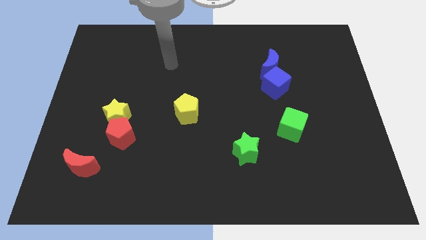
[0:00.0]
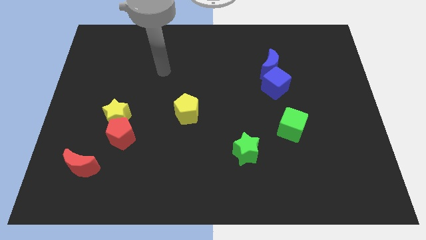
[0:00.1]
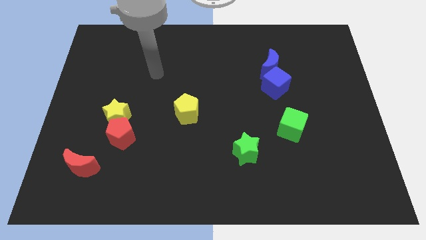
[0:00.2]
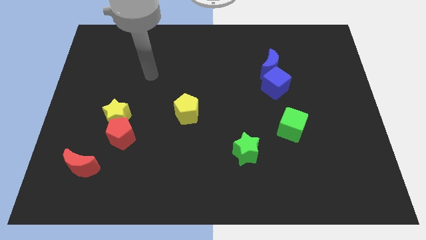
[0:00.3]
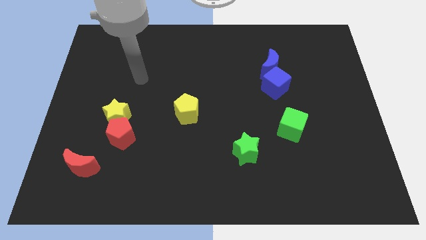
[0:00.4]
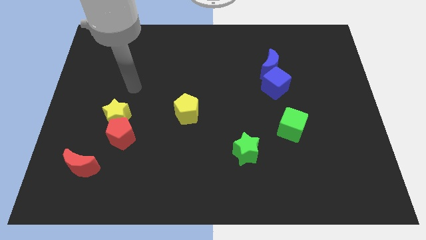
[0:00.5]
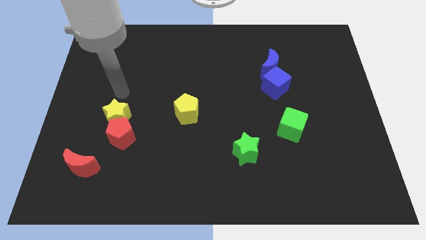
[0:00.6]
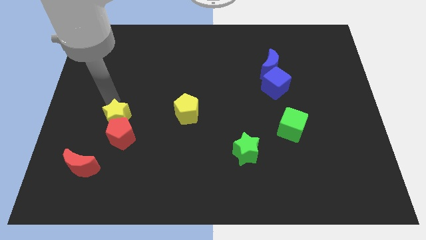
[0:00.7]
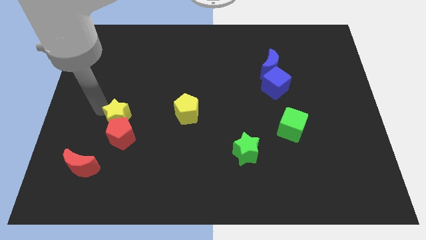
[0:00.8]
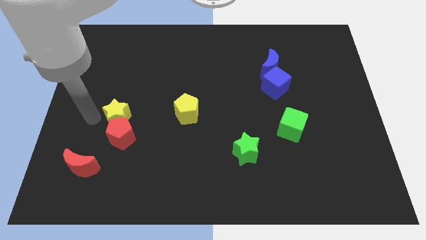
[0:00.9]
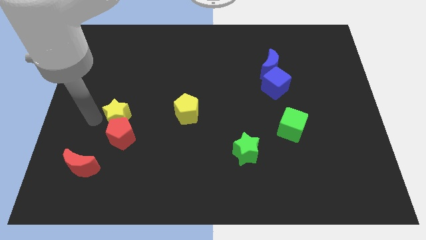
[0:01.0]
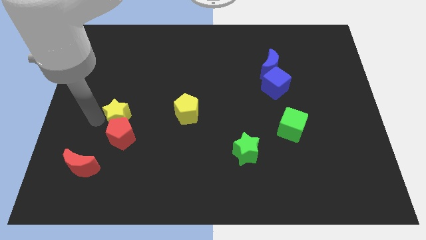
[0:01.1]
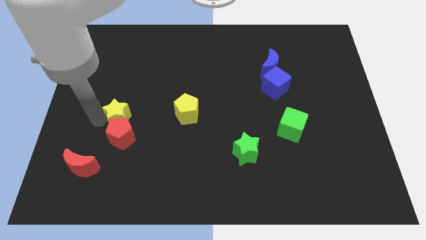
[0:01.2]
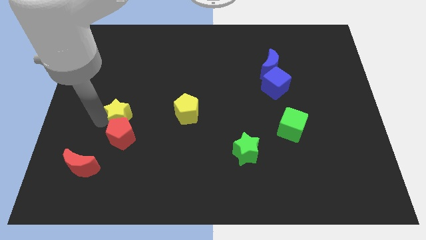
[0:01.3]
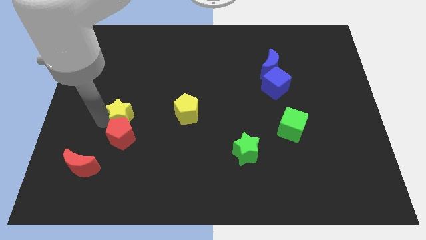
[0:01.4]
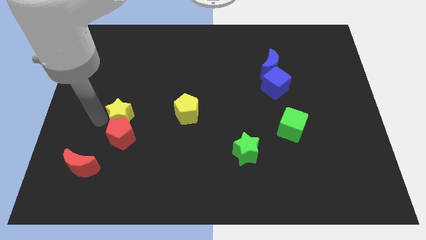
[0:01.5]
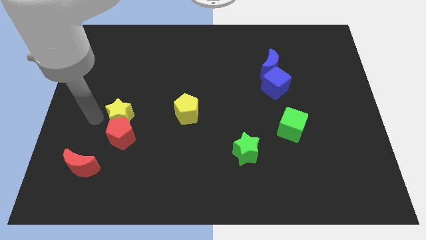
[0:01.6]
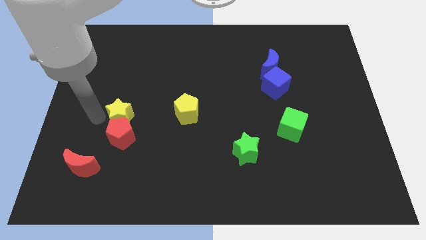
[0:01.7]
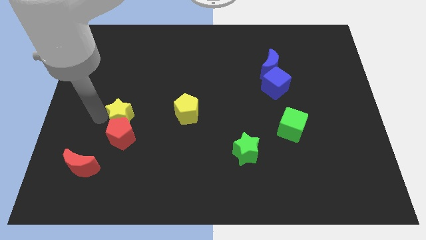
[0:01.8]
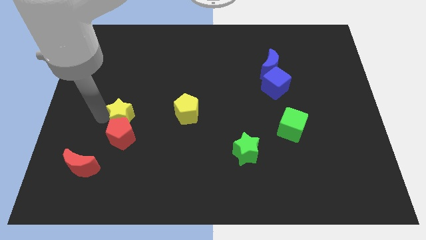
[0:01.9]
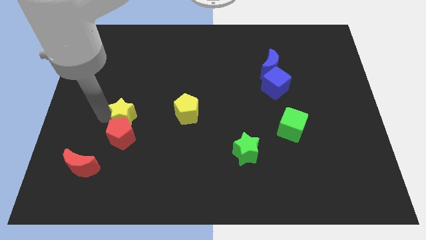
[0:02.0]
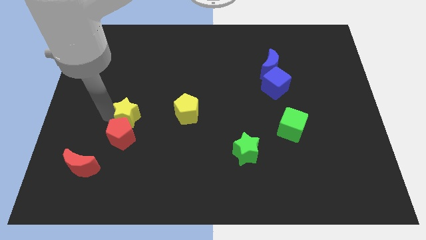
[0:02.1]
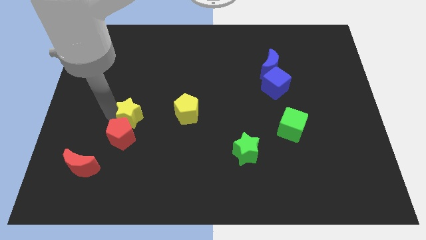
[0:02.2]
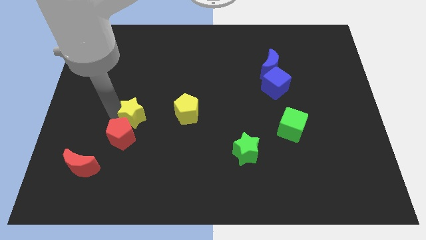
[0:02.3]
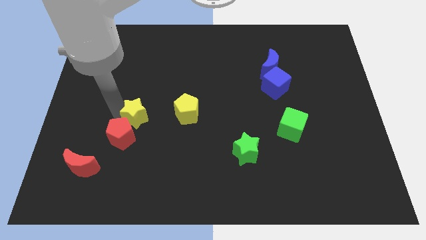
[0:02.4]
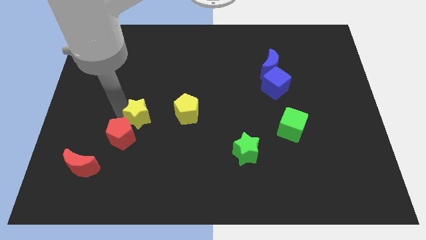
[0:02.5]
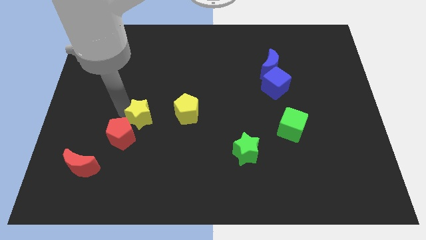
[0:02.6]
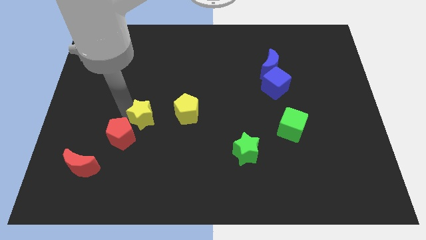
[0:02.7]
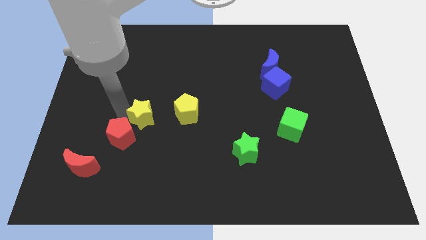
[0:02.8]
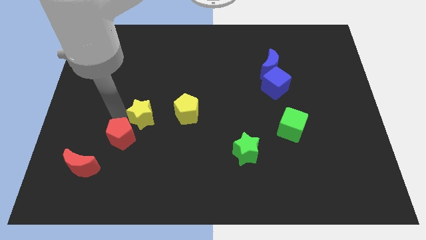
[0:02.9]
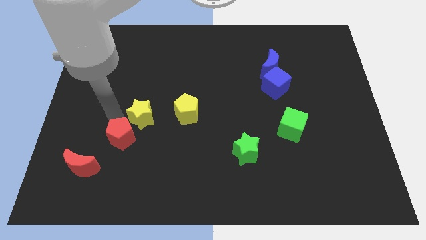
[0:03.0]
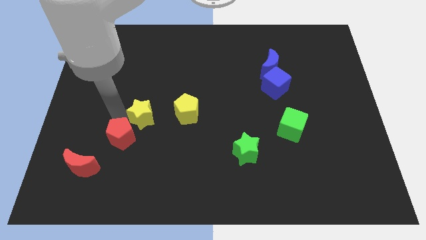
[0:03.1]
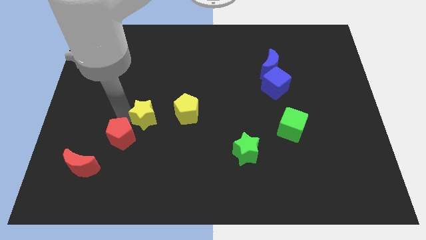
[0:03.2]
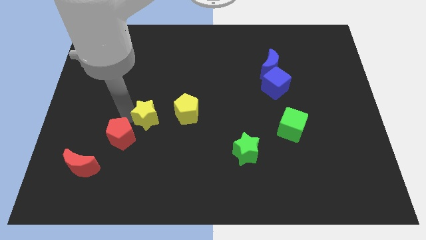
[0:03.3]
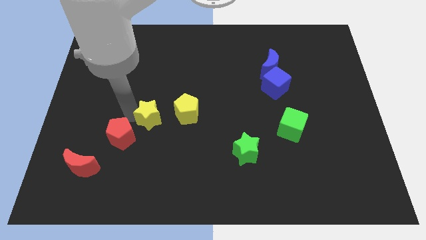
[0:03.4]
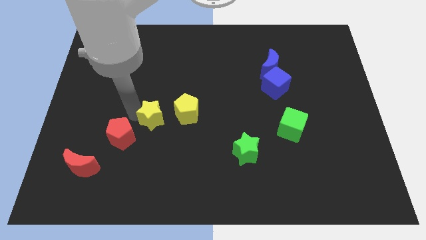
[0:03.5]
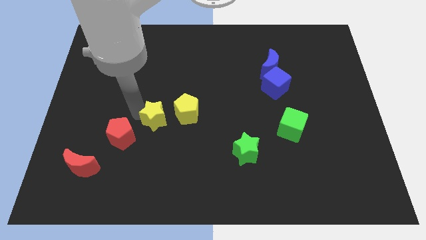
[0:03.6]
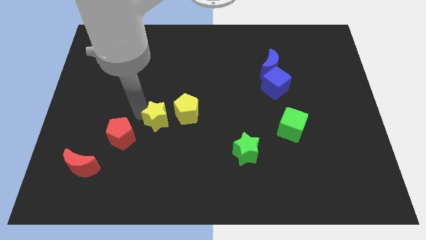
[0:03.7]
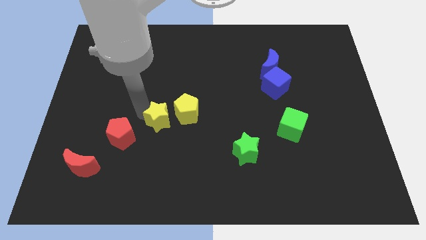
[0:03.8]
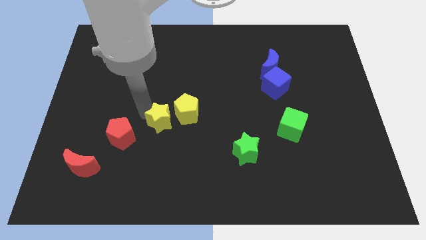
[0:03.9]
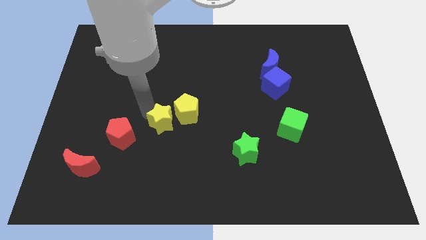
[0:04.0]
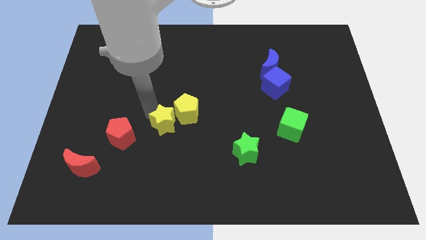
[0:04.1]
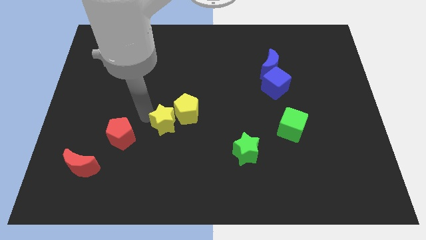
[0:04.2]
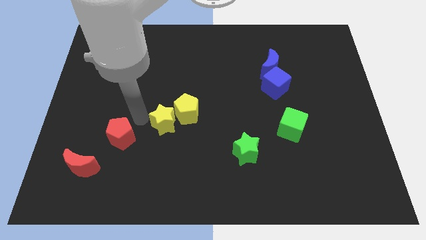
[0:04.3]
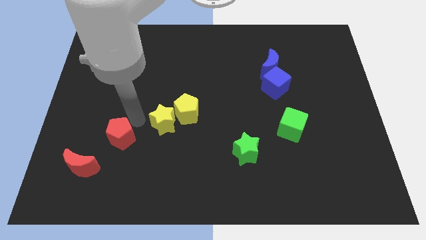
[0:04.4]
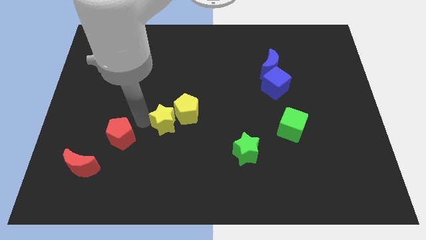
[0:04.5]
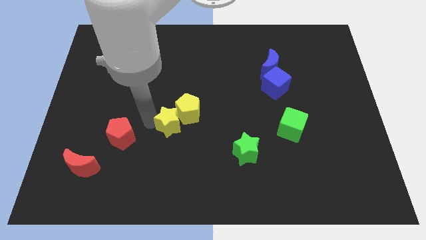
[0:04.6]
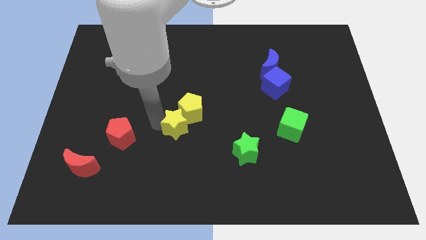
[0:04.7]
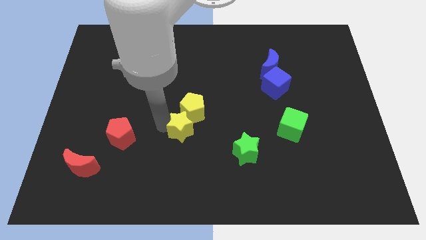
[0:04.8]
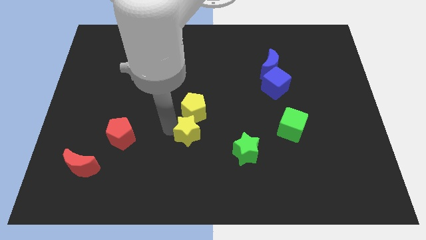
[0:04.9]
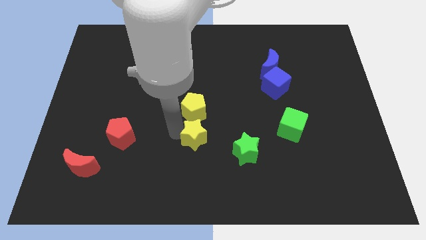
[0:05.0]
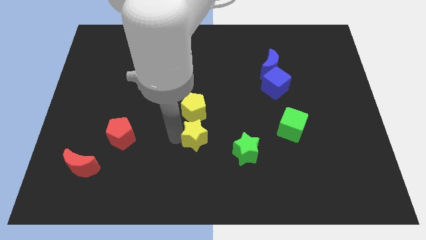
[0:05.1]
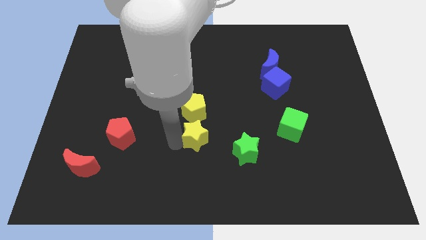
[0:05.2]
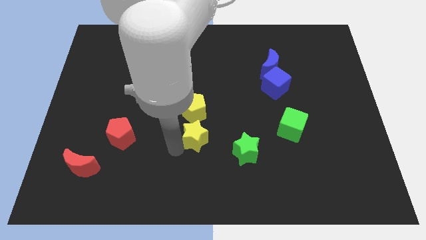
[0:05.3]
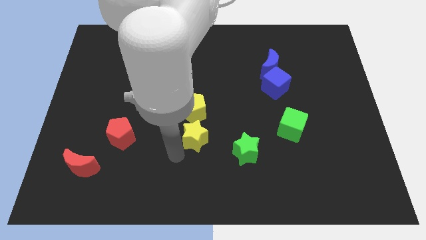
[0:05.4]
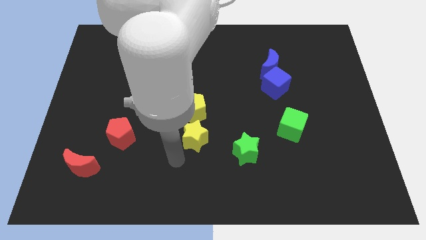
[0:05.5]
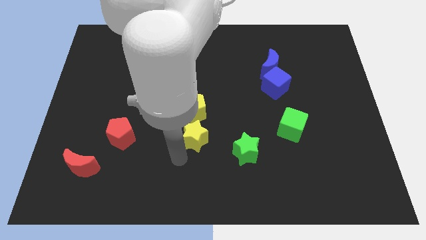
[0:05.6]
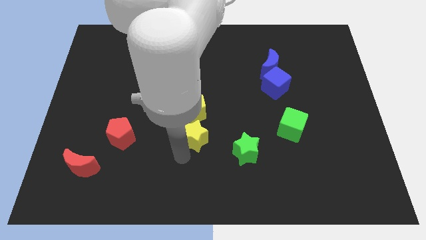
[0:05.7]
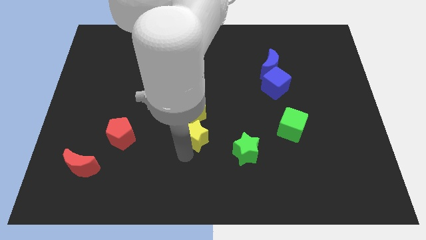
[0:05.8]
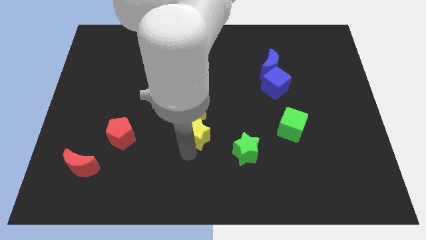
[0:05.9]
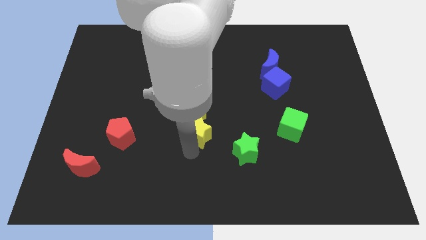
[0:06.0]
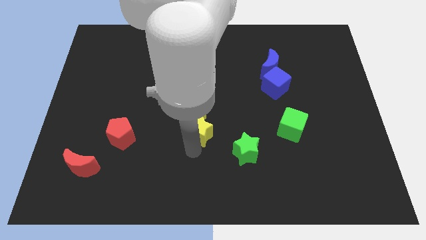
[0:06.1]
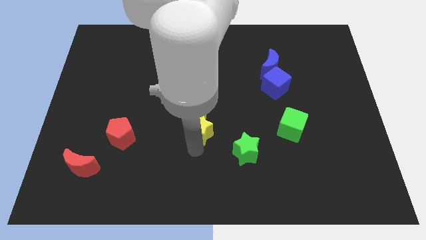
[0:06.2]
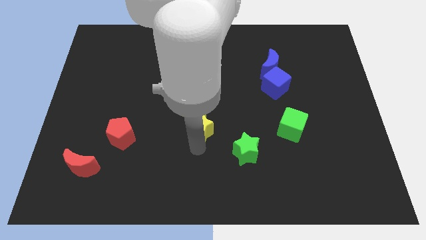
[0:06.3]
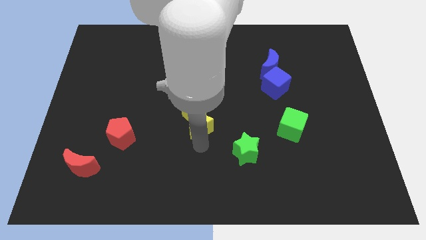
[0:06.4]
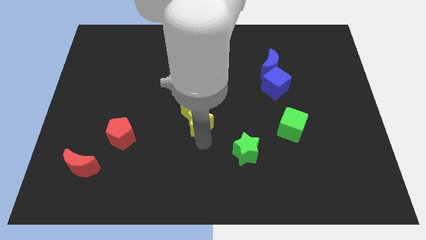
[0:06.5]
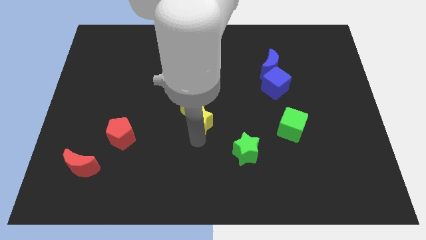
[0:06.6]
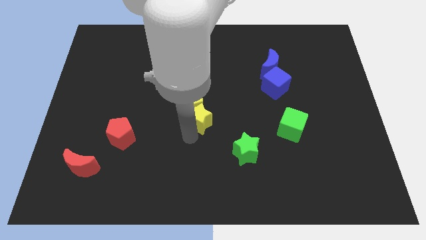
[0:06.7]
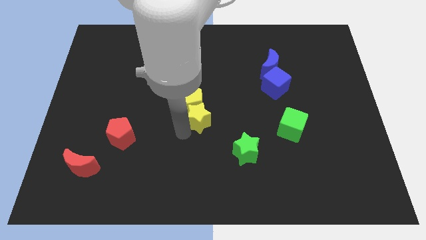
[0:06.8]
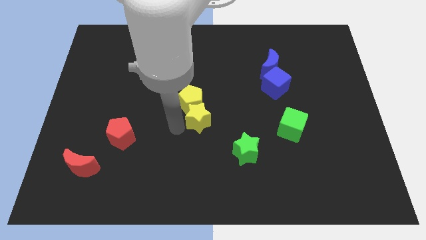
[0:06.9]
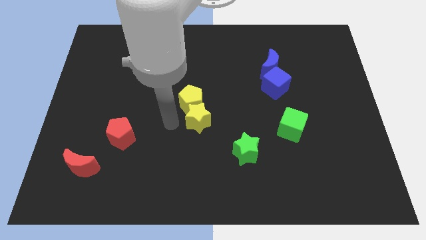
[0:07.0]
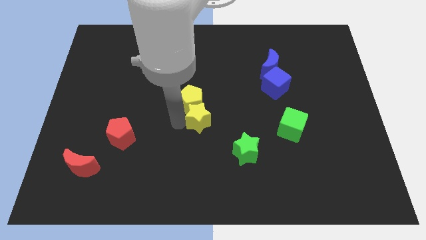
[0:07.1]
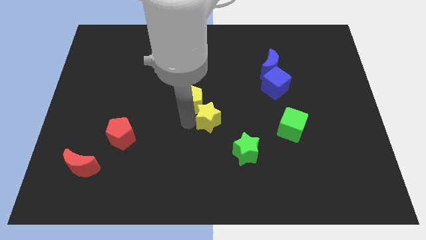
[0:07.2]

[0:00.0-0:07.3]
move the yellow star right

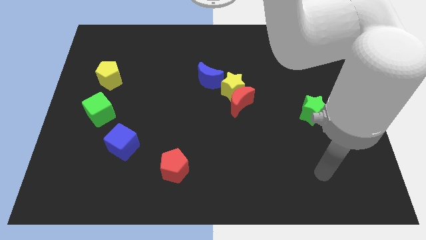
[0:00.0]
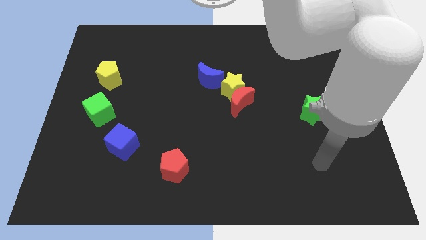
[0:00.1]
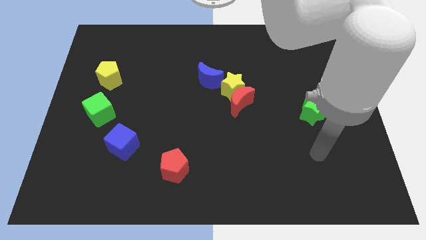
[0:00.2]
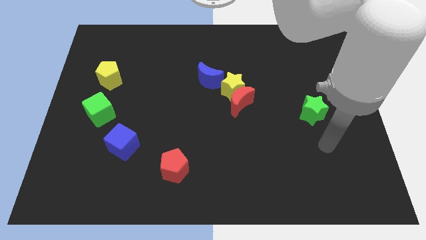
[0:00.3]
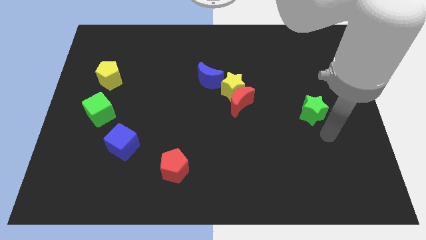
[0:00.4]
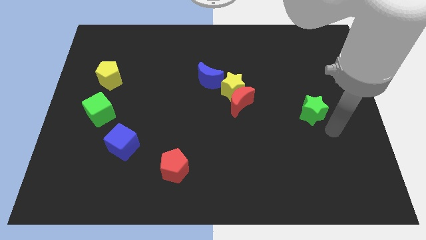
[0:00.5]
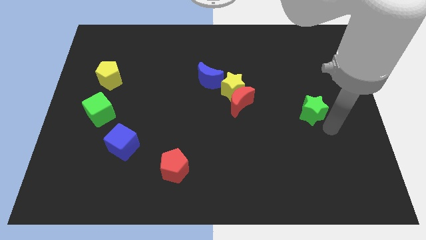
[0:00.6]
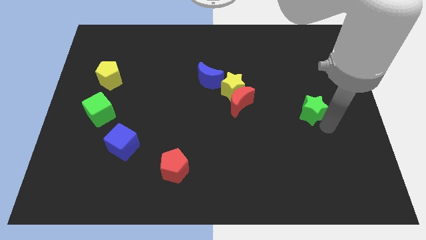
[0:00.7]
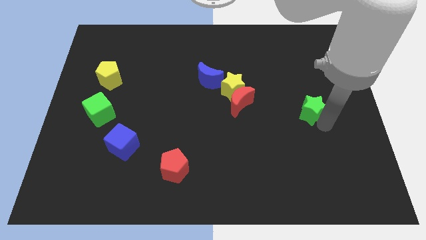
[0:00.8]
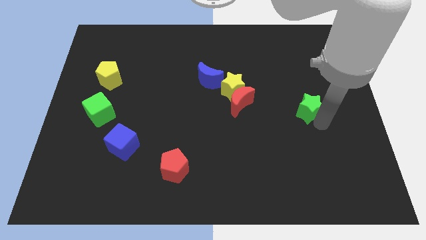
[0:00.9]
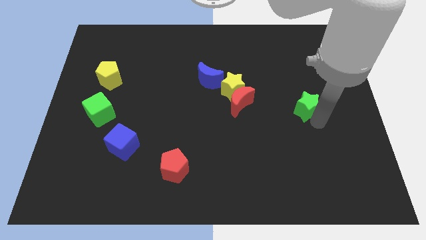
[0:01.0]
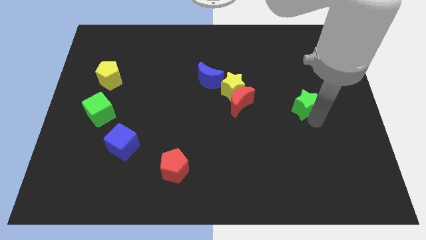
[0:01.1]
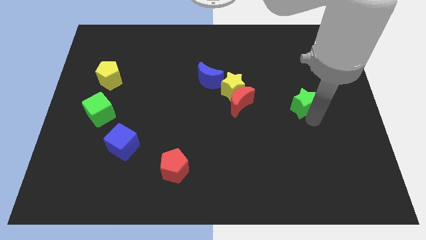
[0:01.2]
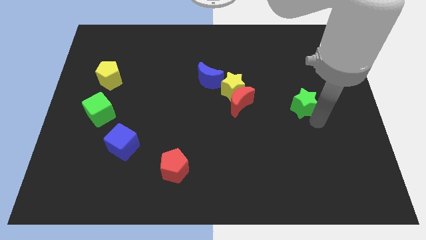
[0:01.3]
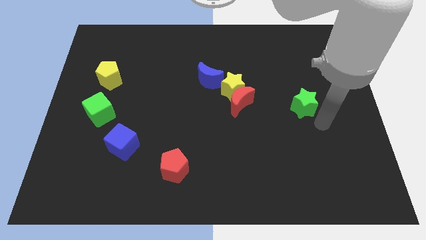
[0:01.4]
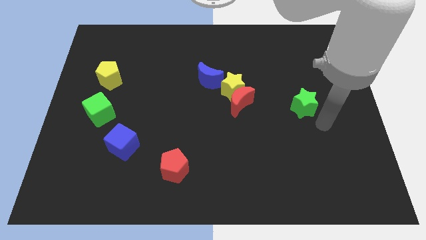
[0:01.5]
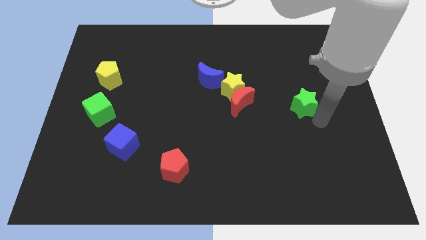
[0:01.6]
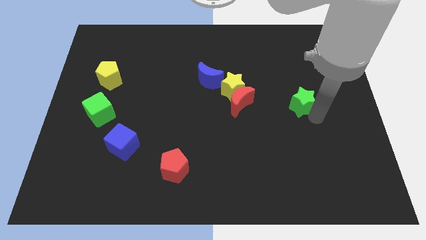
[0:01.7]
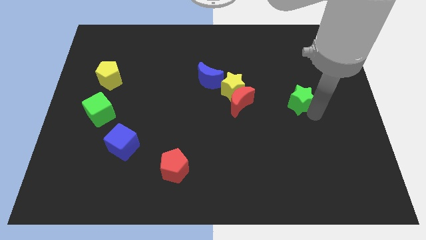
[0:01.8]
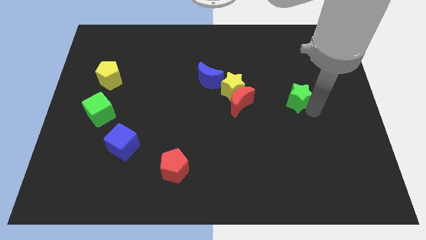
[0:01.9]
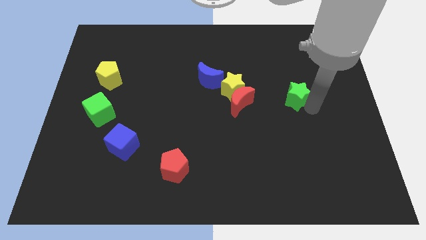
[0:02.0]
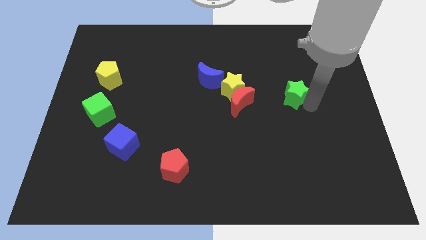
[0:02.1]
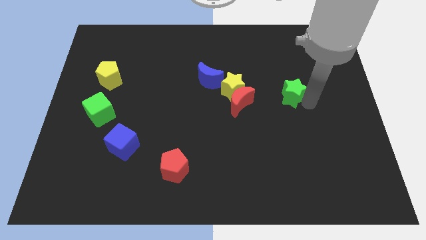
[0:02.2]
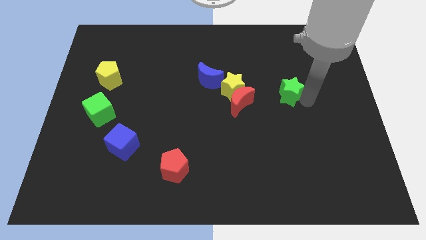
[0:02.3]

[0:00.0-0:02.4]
slightly slide the green star upwards and then to the left
